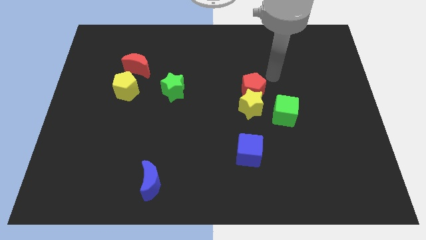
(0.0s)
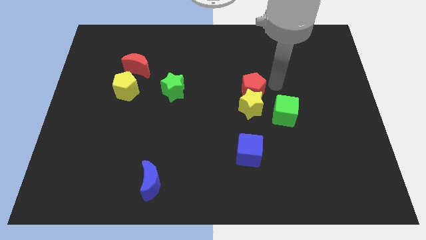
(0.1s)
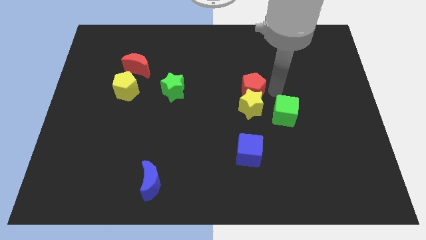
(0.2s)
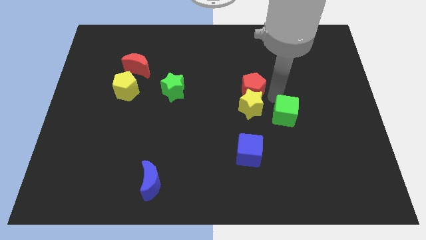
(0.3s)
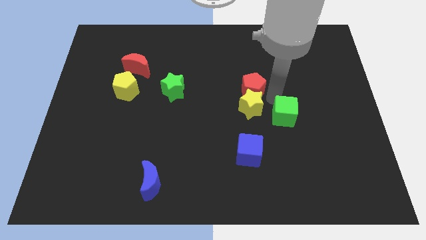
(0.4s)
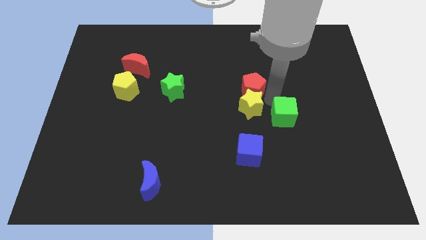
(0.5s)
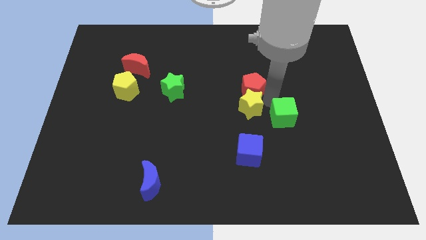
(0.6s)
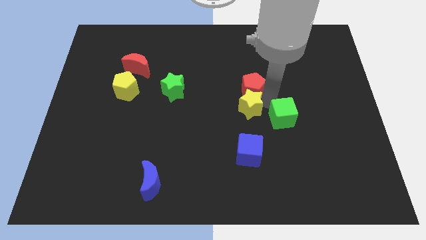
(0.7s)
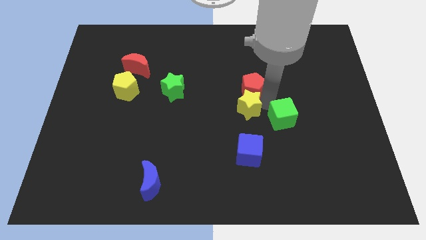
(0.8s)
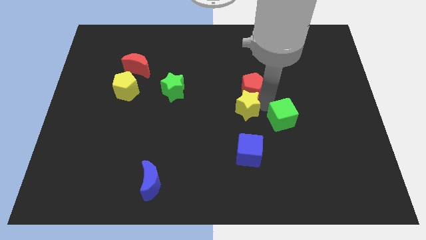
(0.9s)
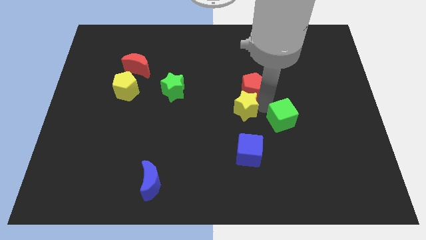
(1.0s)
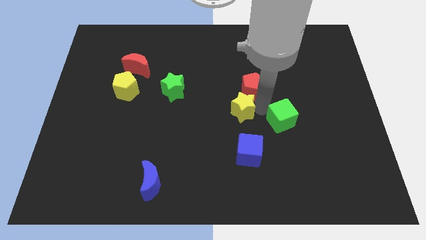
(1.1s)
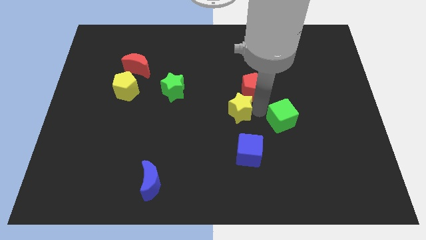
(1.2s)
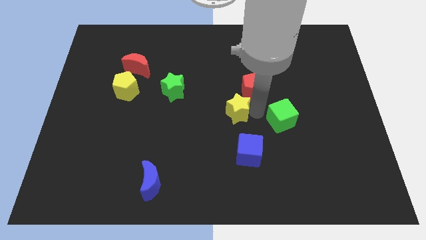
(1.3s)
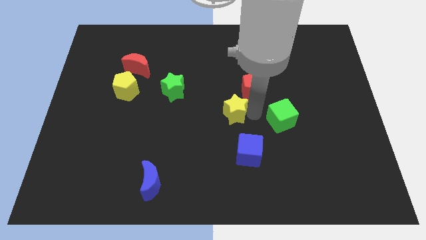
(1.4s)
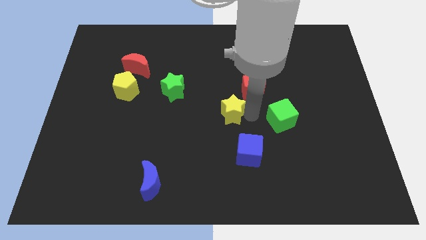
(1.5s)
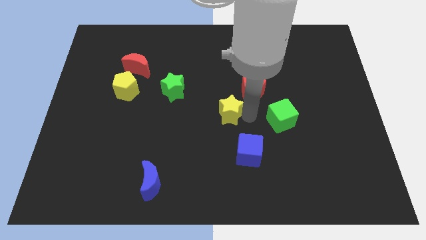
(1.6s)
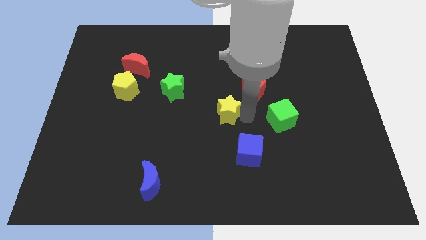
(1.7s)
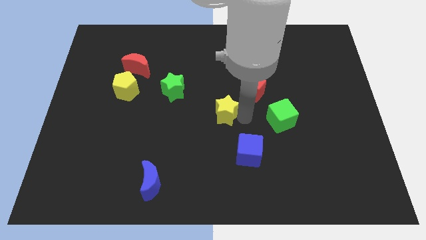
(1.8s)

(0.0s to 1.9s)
move the yellow star away from the red pentagon and green cube

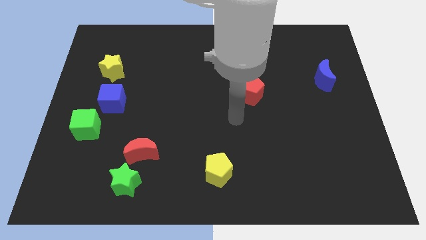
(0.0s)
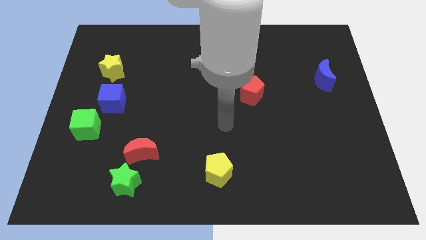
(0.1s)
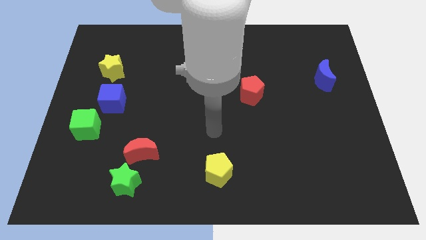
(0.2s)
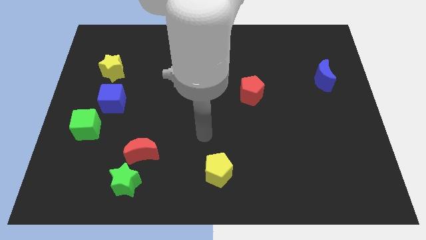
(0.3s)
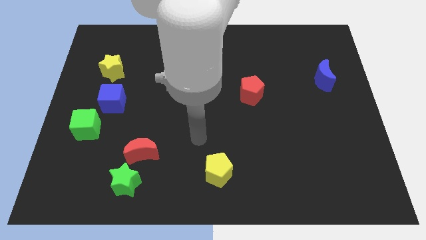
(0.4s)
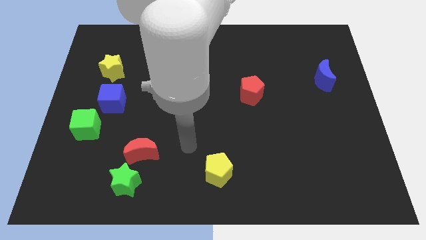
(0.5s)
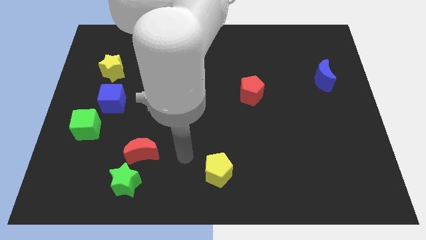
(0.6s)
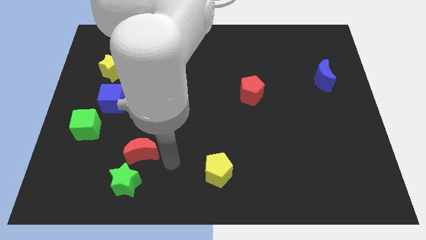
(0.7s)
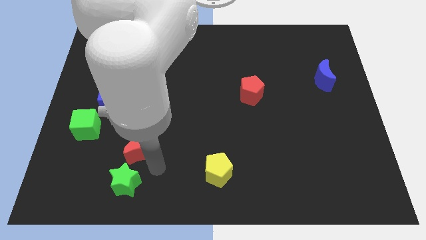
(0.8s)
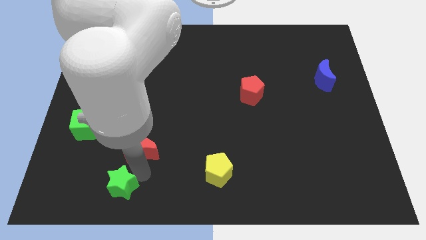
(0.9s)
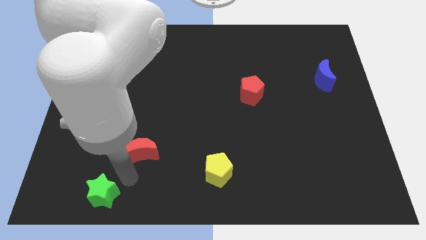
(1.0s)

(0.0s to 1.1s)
pull the red moon apart from the green star

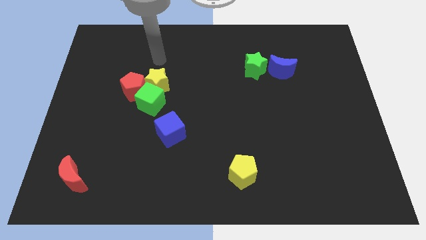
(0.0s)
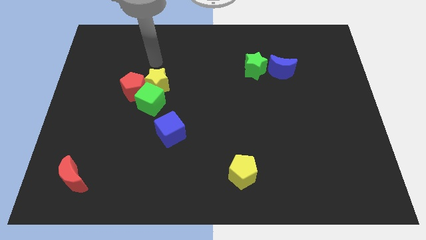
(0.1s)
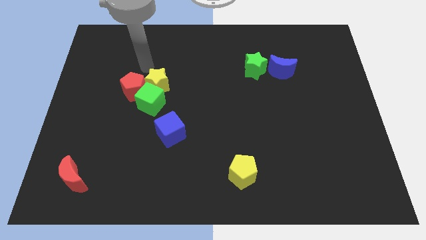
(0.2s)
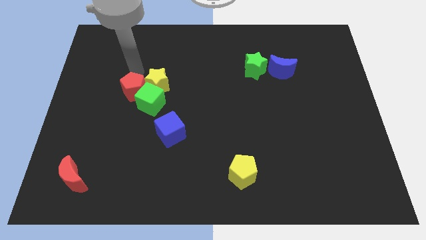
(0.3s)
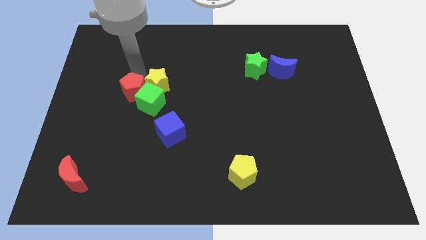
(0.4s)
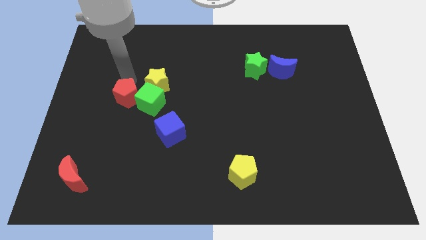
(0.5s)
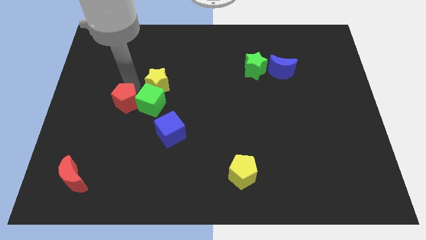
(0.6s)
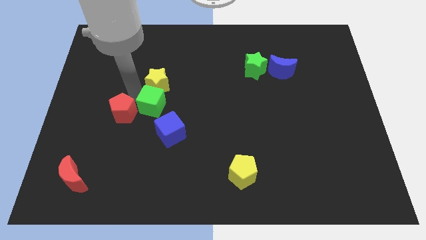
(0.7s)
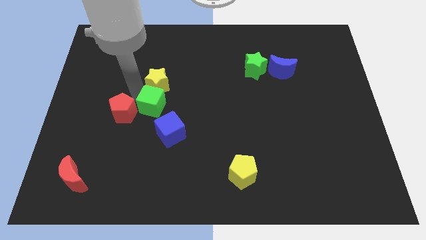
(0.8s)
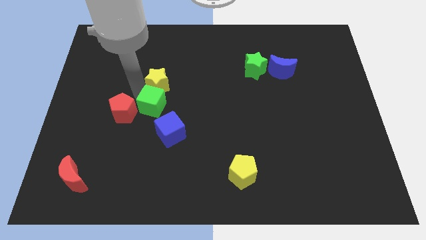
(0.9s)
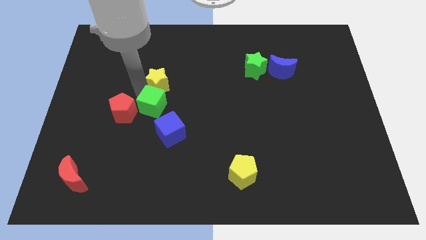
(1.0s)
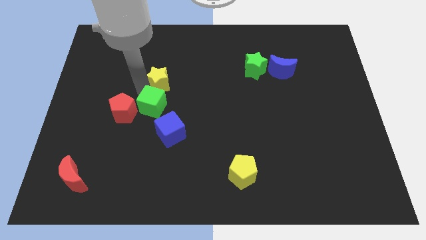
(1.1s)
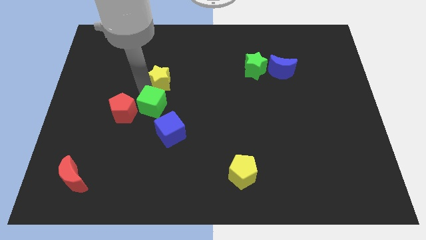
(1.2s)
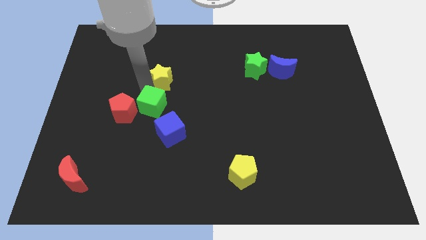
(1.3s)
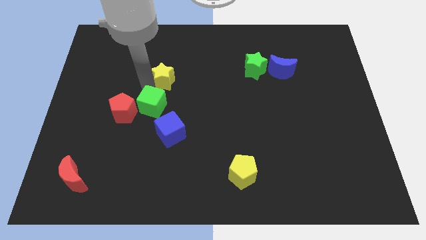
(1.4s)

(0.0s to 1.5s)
move the yellow star away from the green cube and red pentagon

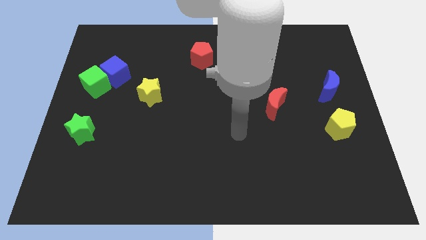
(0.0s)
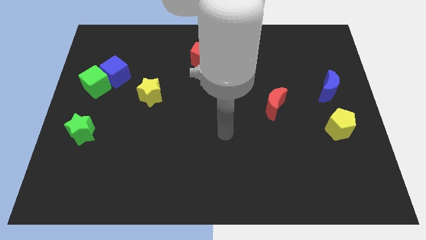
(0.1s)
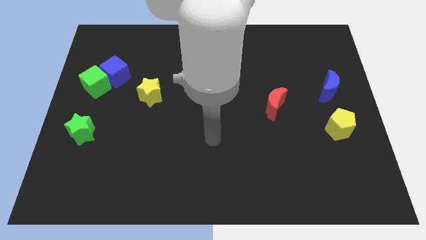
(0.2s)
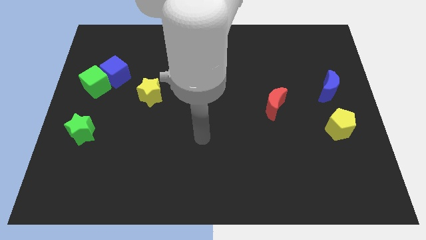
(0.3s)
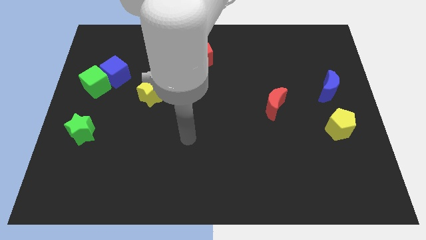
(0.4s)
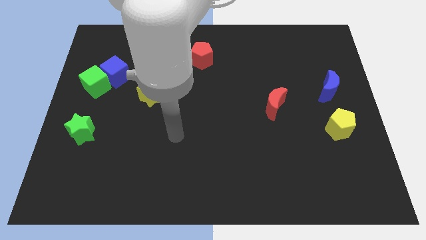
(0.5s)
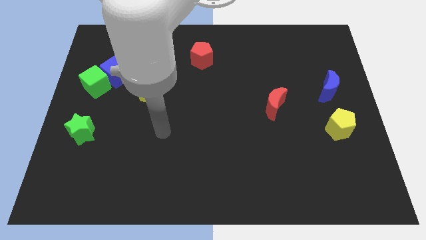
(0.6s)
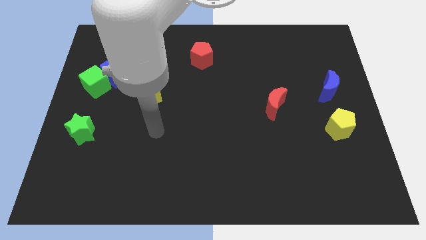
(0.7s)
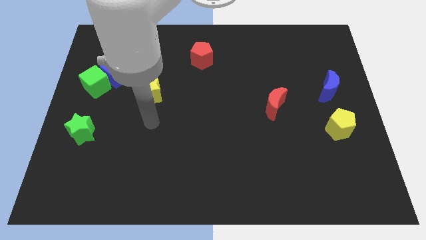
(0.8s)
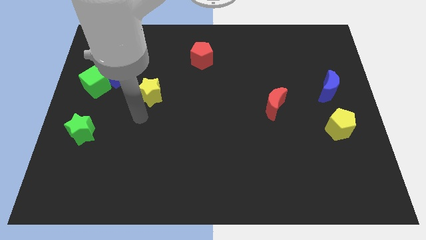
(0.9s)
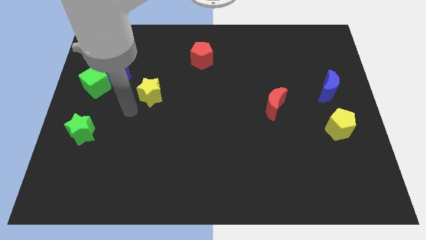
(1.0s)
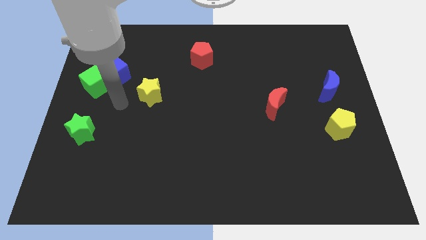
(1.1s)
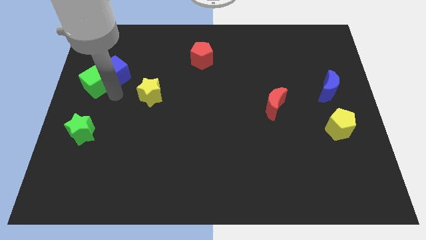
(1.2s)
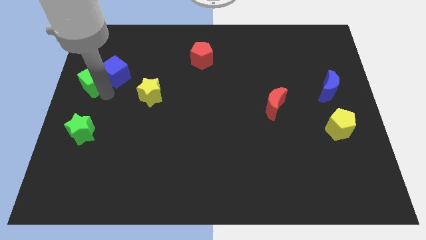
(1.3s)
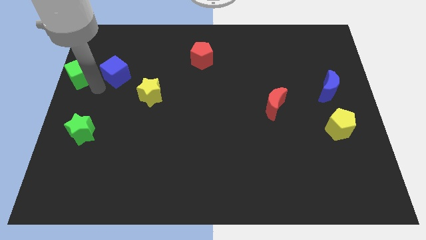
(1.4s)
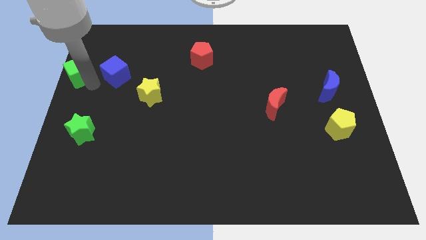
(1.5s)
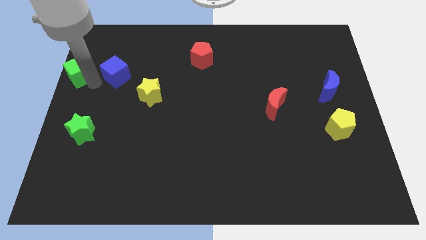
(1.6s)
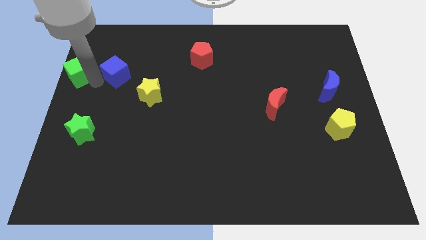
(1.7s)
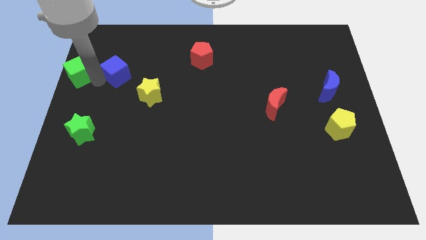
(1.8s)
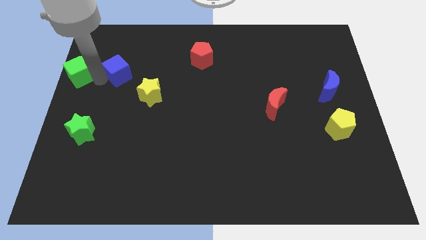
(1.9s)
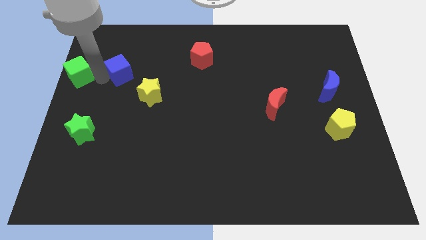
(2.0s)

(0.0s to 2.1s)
pull the blue cube apart from the green cube

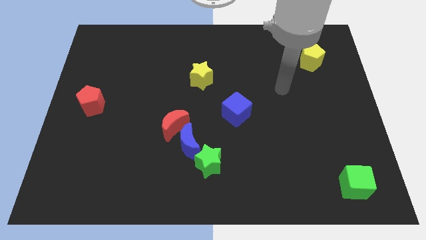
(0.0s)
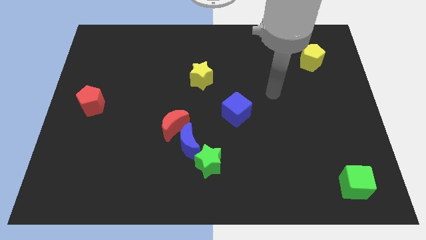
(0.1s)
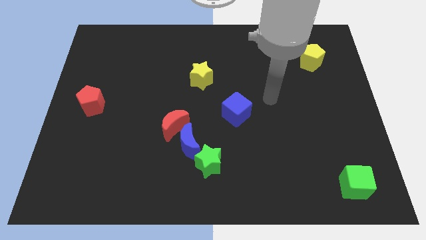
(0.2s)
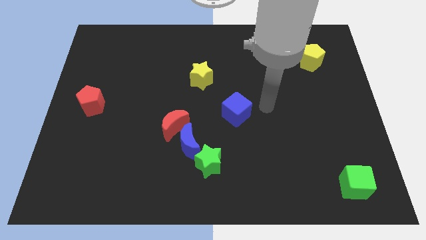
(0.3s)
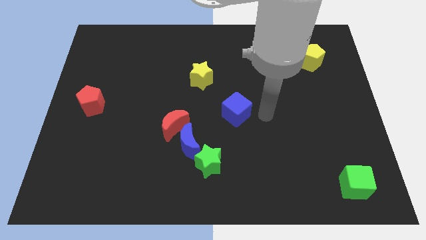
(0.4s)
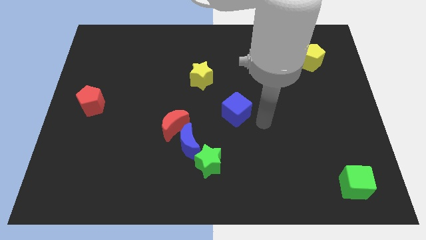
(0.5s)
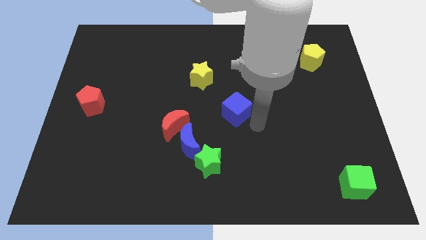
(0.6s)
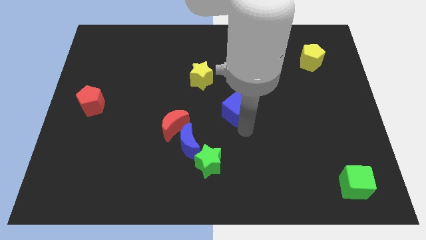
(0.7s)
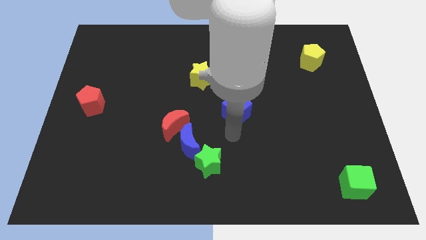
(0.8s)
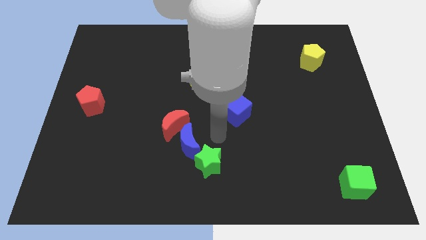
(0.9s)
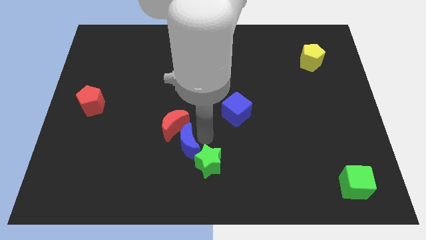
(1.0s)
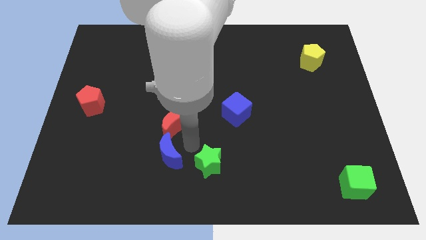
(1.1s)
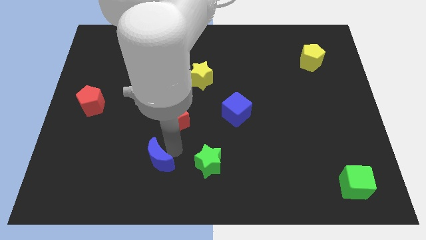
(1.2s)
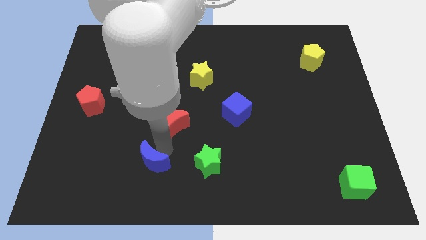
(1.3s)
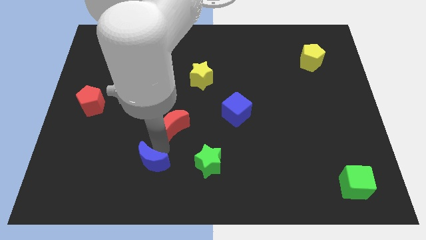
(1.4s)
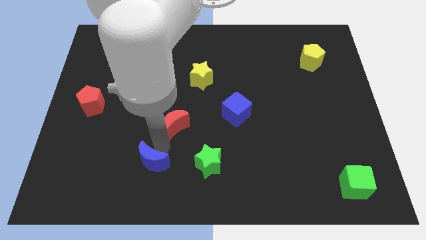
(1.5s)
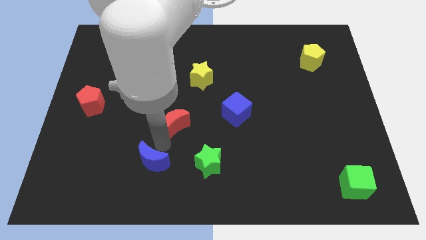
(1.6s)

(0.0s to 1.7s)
move the red moon away from the blue moon

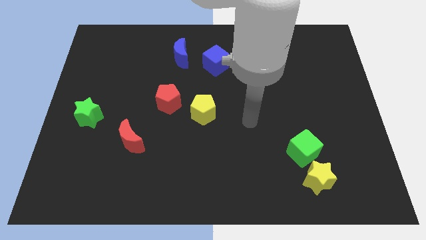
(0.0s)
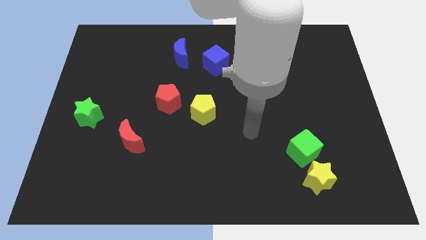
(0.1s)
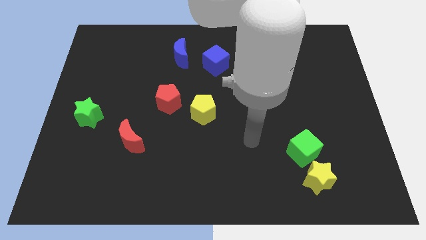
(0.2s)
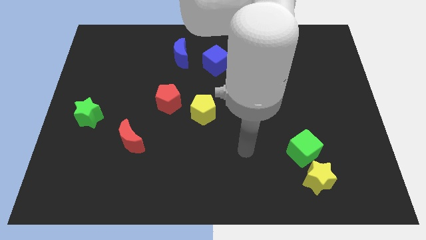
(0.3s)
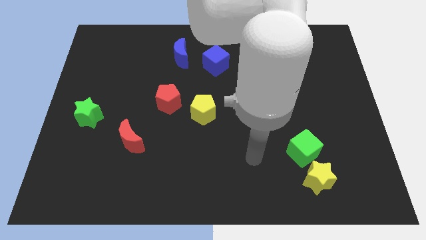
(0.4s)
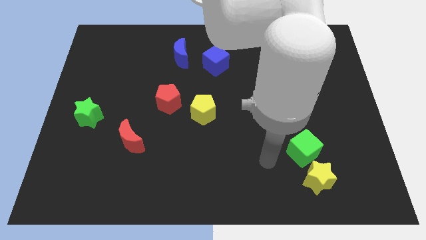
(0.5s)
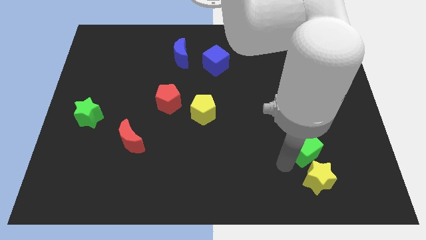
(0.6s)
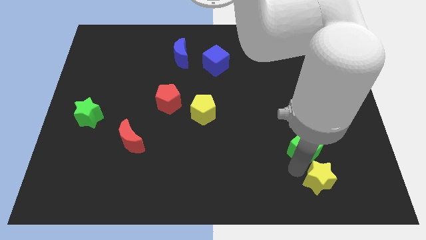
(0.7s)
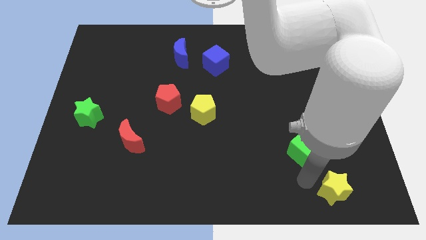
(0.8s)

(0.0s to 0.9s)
pull the green cube apart from the yellow star
